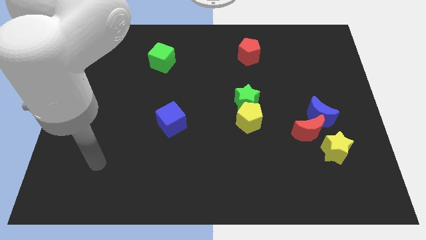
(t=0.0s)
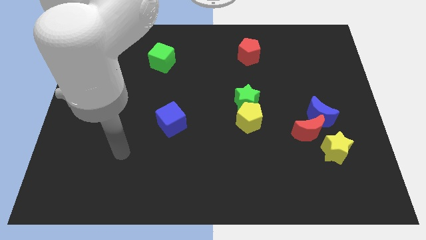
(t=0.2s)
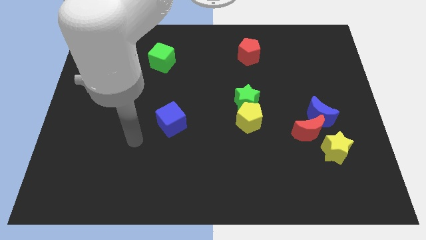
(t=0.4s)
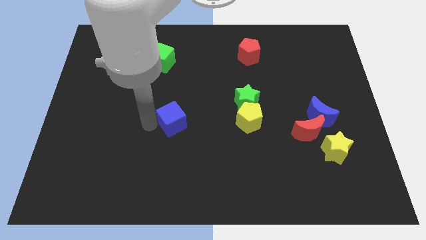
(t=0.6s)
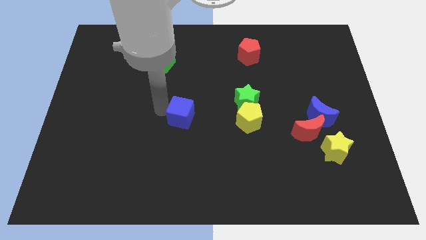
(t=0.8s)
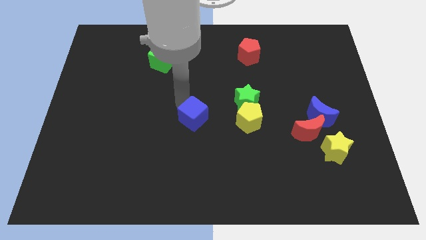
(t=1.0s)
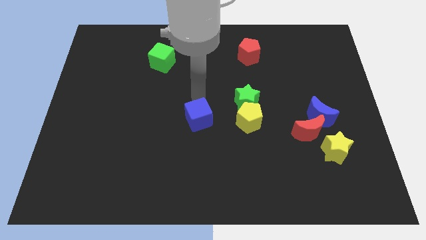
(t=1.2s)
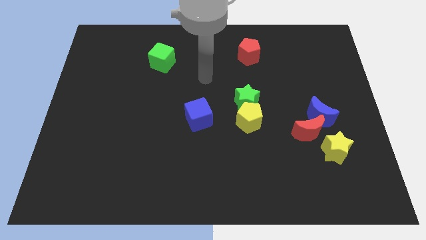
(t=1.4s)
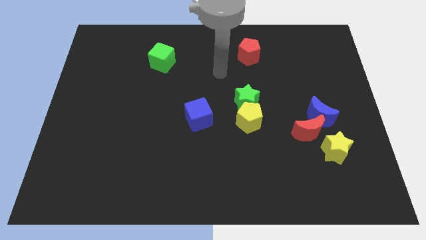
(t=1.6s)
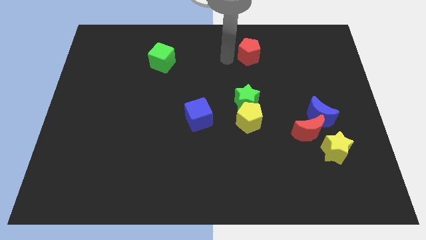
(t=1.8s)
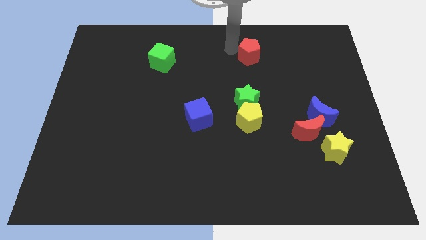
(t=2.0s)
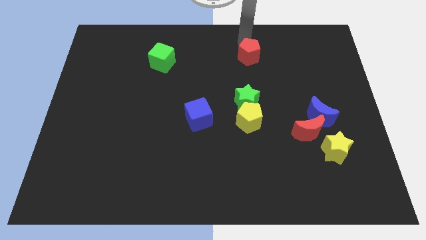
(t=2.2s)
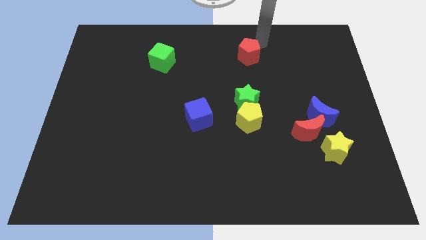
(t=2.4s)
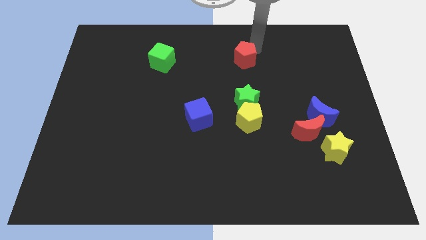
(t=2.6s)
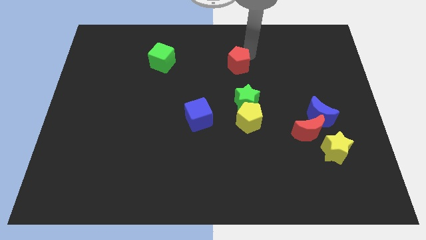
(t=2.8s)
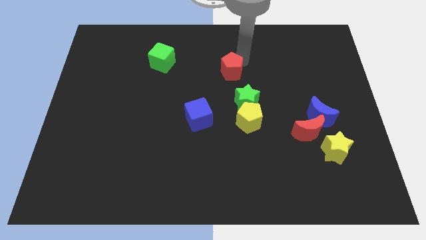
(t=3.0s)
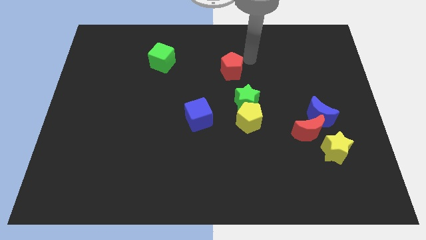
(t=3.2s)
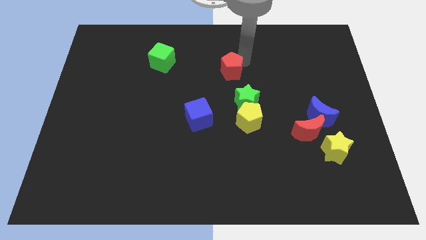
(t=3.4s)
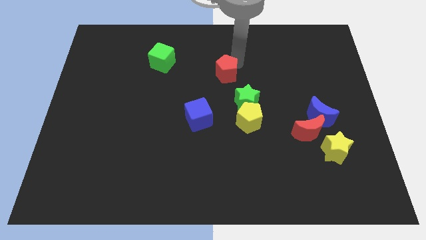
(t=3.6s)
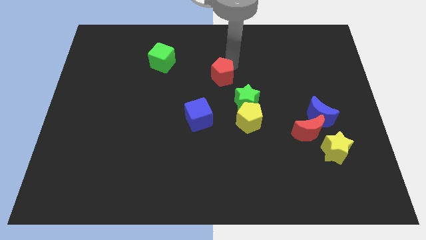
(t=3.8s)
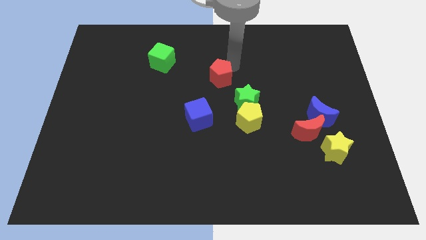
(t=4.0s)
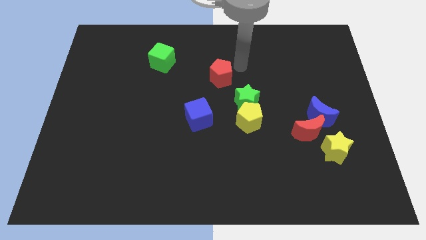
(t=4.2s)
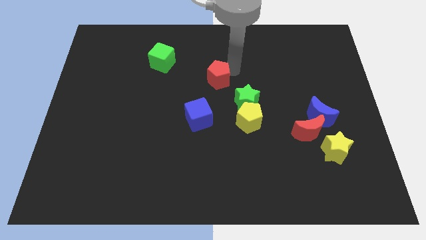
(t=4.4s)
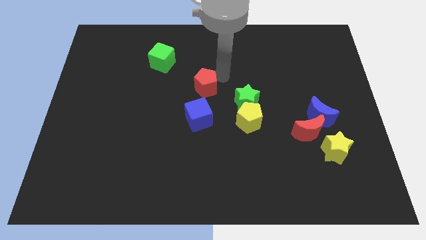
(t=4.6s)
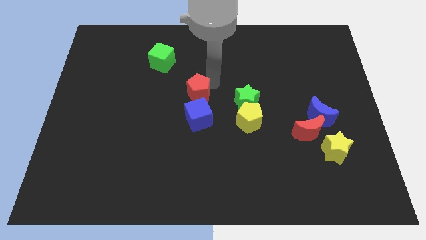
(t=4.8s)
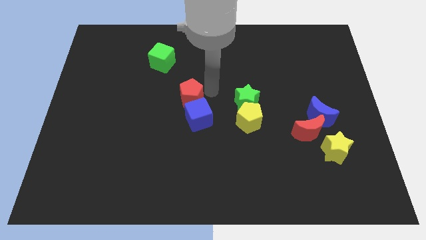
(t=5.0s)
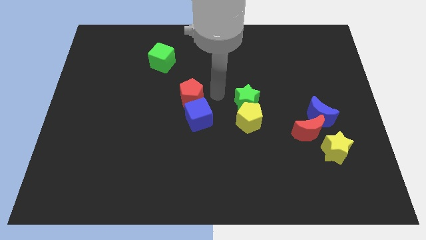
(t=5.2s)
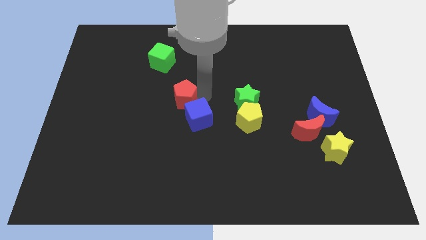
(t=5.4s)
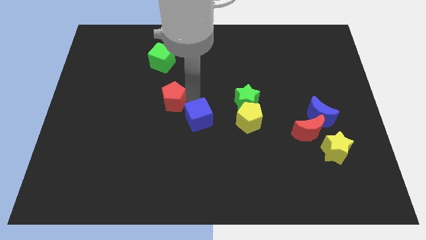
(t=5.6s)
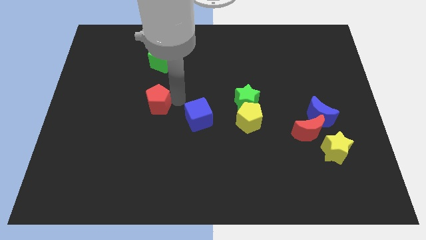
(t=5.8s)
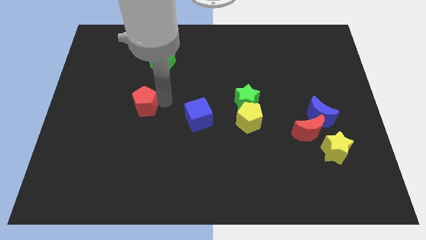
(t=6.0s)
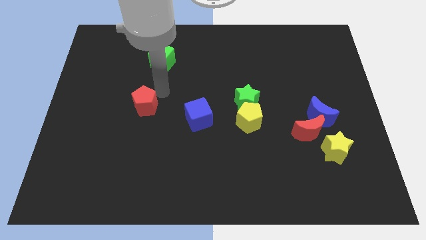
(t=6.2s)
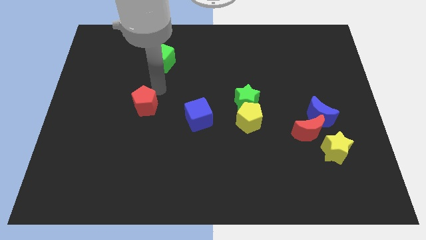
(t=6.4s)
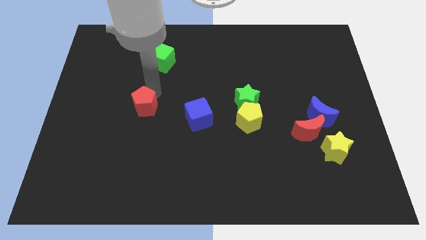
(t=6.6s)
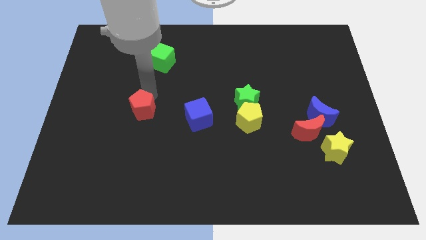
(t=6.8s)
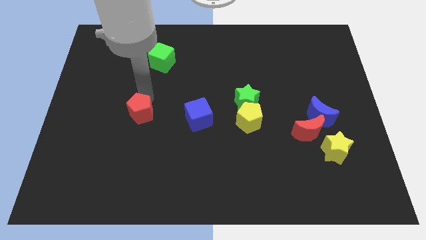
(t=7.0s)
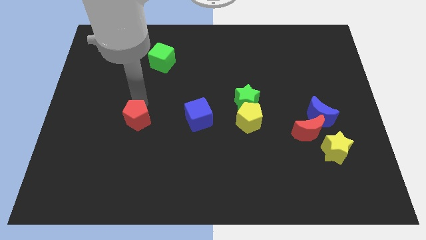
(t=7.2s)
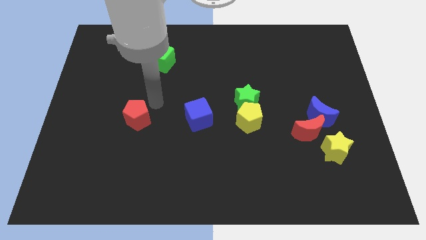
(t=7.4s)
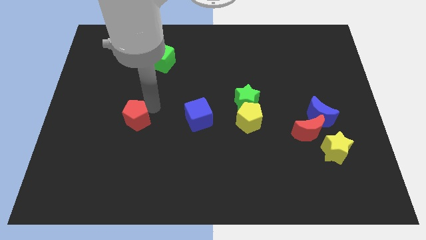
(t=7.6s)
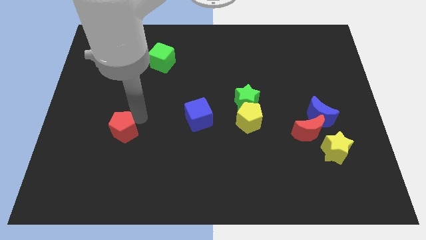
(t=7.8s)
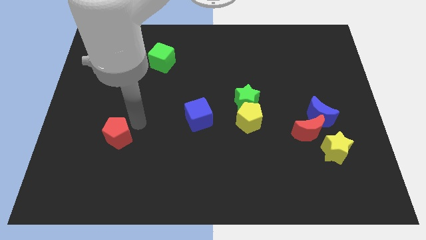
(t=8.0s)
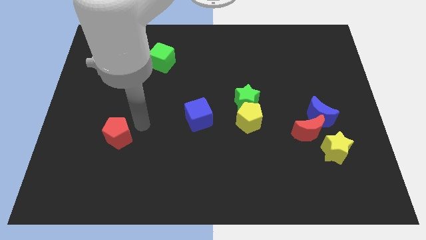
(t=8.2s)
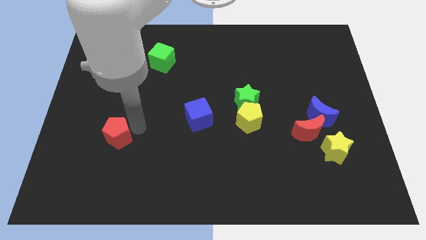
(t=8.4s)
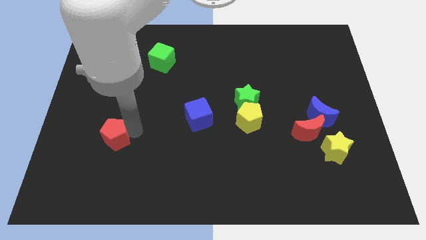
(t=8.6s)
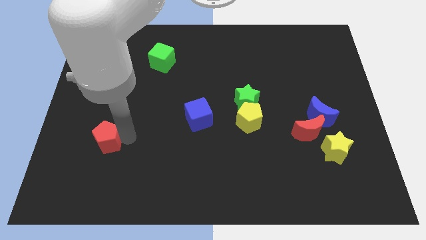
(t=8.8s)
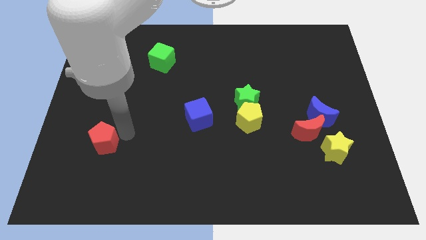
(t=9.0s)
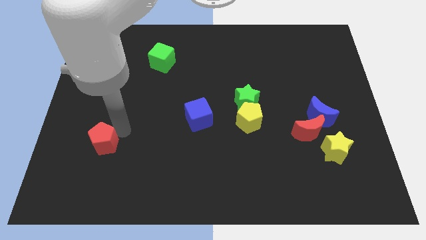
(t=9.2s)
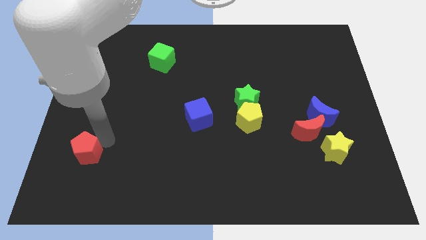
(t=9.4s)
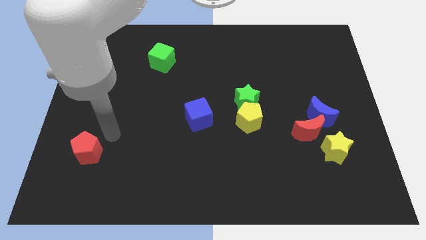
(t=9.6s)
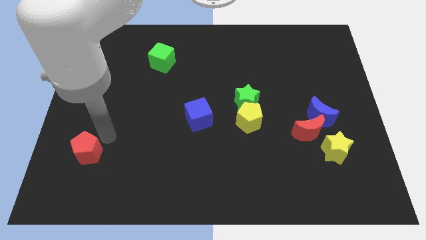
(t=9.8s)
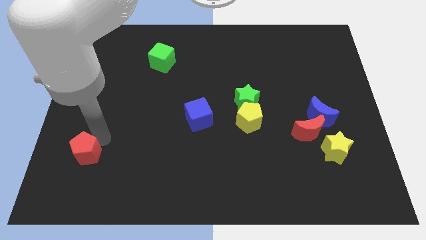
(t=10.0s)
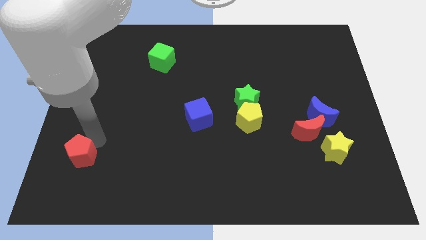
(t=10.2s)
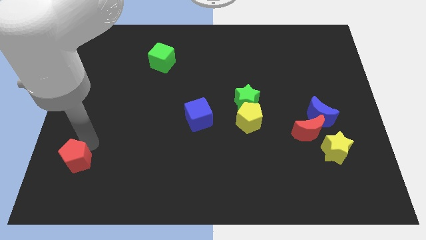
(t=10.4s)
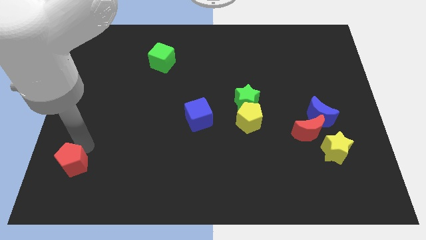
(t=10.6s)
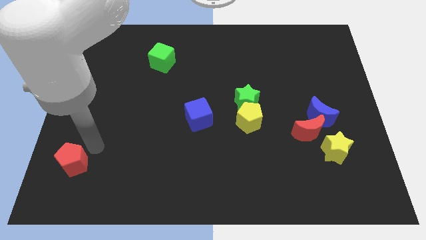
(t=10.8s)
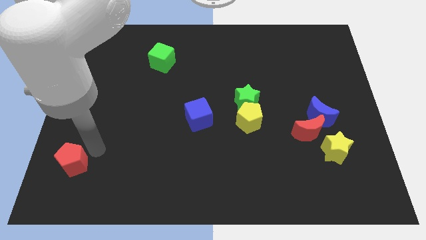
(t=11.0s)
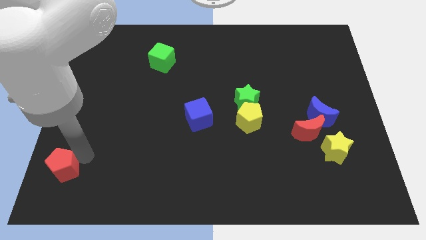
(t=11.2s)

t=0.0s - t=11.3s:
slide the red pentagon to the bottom left of the board
